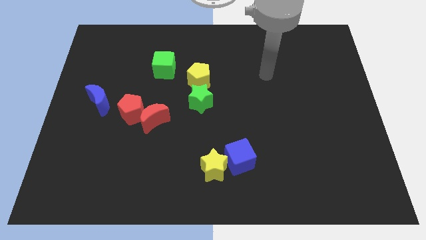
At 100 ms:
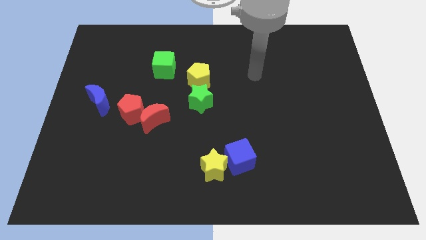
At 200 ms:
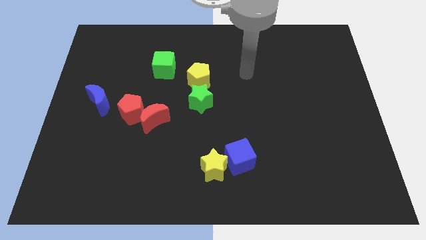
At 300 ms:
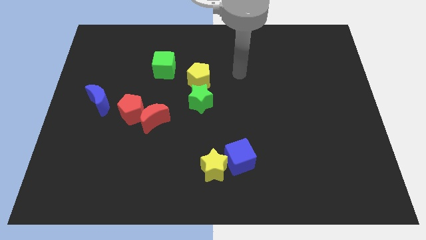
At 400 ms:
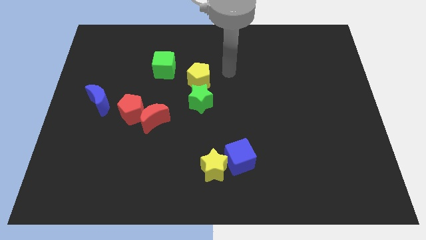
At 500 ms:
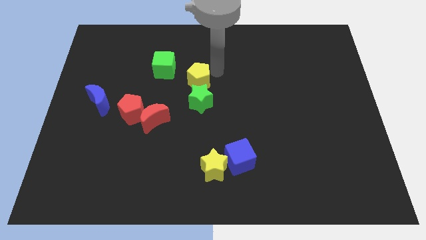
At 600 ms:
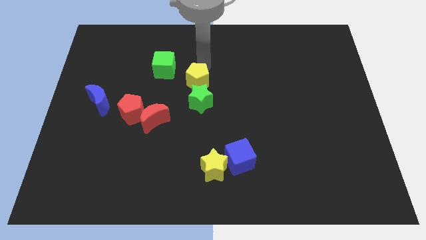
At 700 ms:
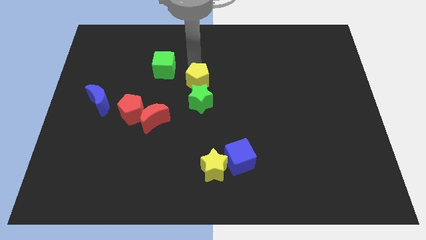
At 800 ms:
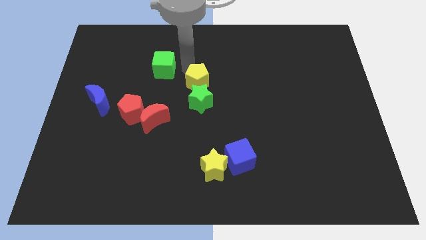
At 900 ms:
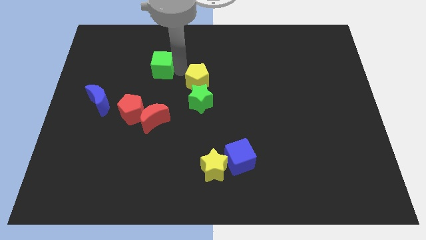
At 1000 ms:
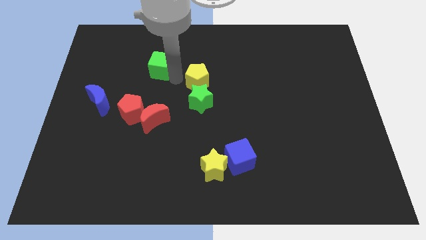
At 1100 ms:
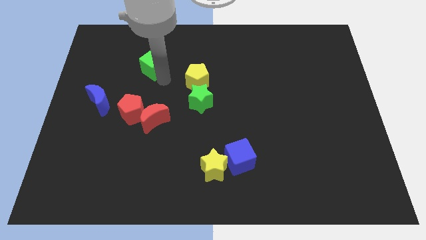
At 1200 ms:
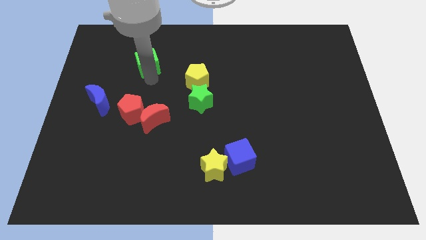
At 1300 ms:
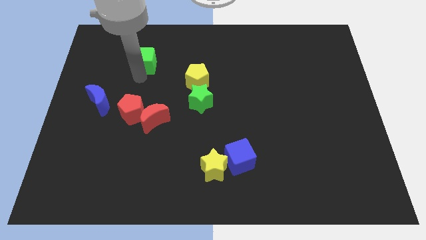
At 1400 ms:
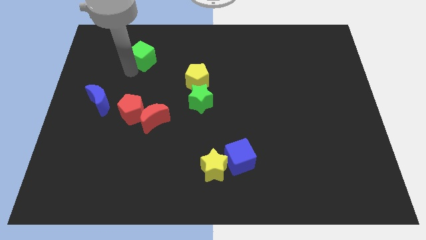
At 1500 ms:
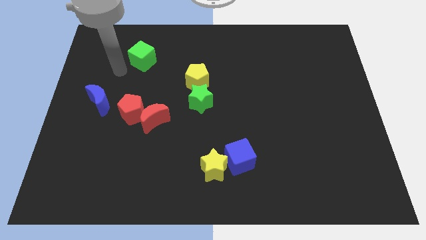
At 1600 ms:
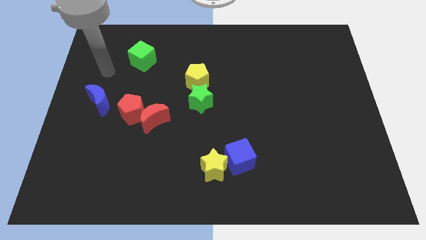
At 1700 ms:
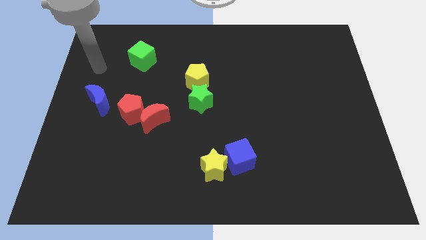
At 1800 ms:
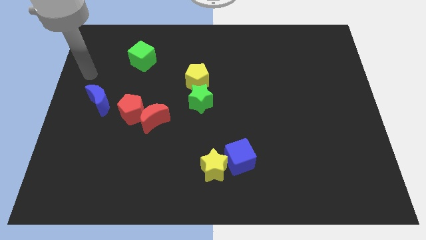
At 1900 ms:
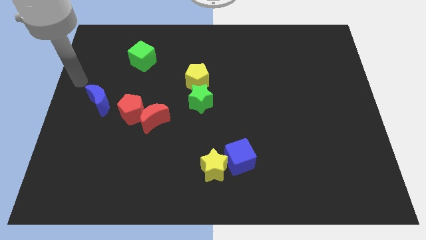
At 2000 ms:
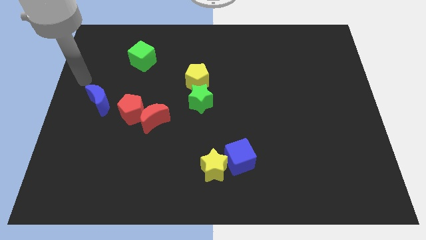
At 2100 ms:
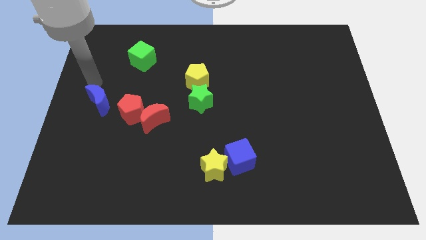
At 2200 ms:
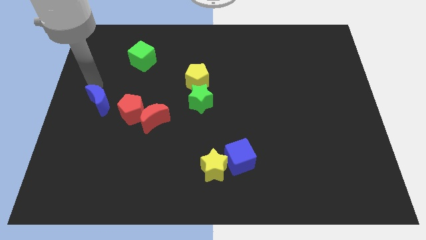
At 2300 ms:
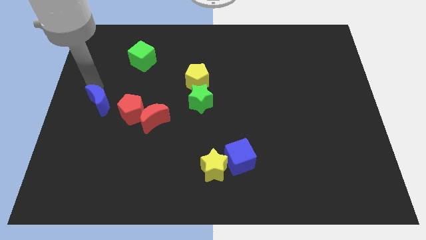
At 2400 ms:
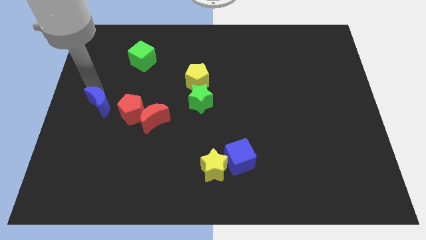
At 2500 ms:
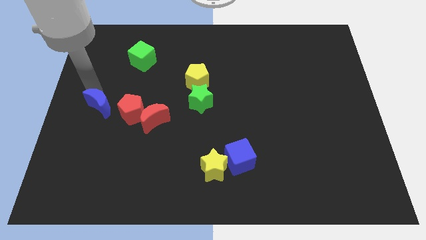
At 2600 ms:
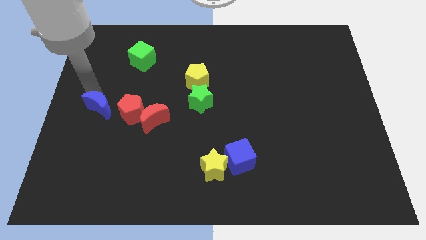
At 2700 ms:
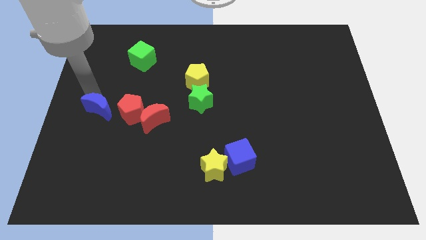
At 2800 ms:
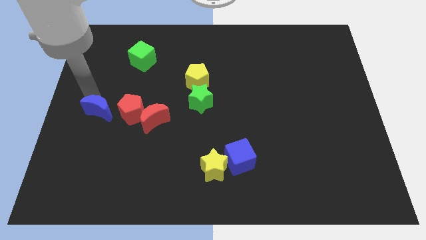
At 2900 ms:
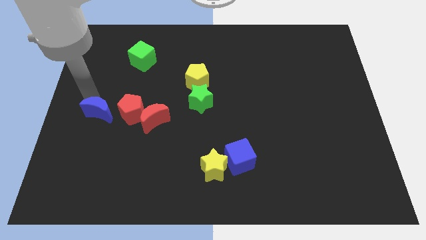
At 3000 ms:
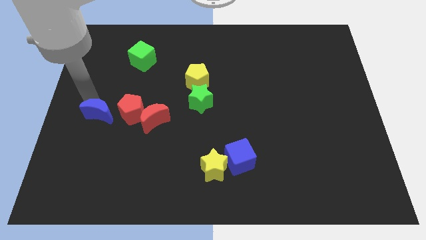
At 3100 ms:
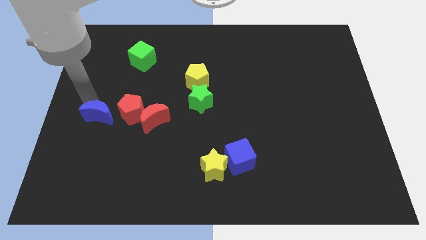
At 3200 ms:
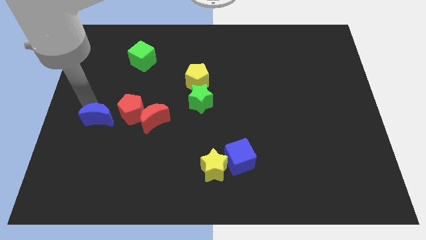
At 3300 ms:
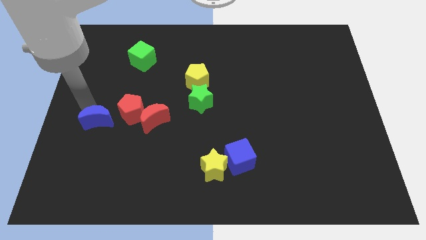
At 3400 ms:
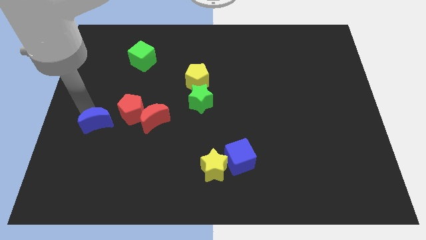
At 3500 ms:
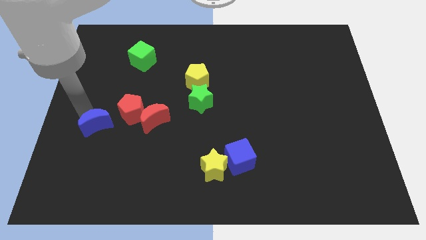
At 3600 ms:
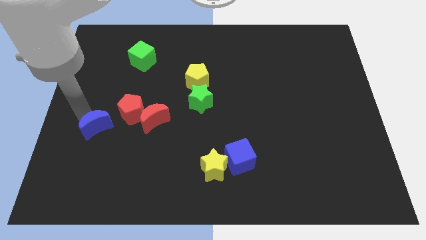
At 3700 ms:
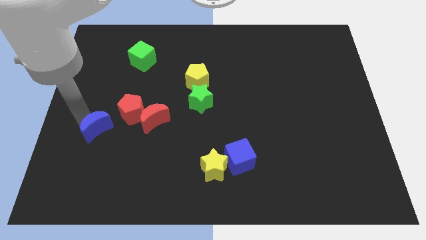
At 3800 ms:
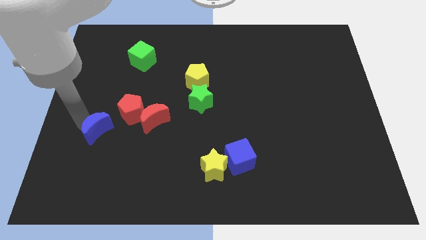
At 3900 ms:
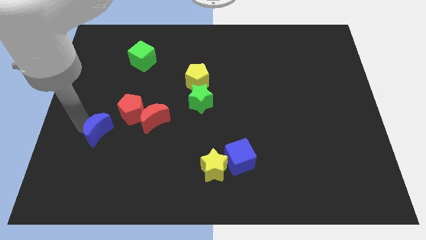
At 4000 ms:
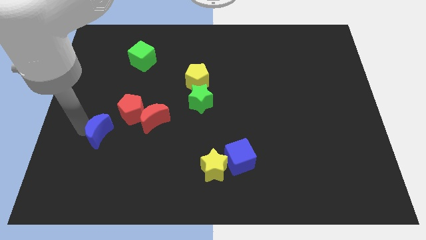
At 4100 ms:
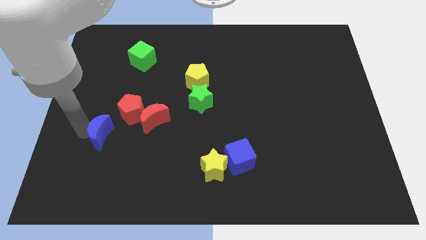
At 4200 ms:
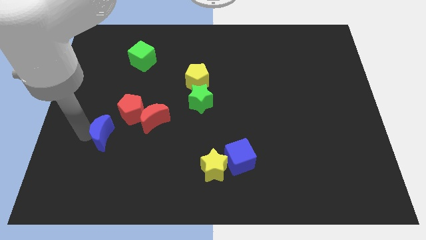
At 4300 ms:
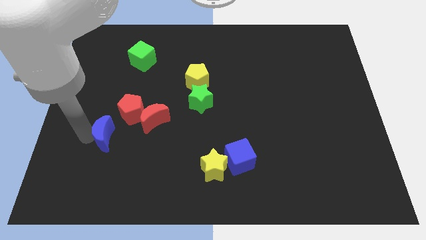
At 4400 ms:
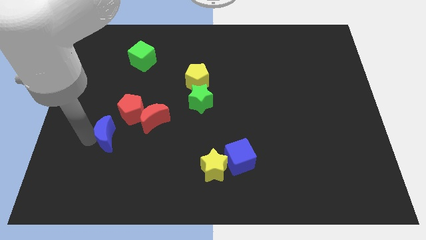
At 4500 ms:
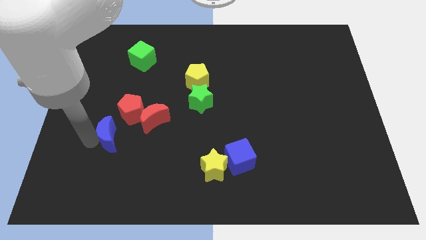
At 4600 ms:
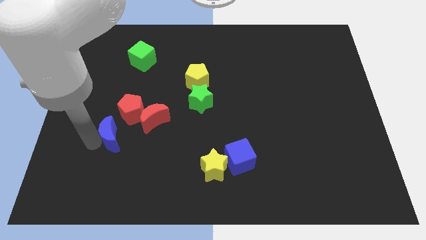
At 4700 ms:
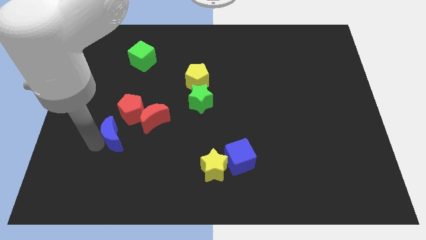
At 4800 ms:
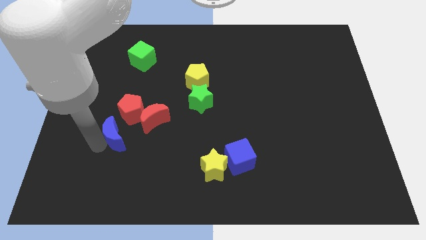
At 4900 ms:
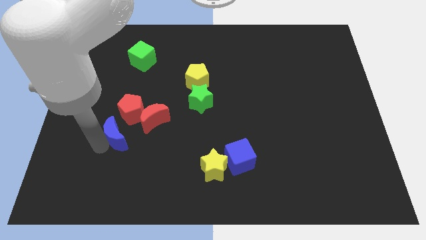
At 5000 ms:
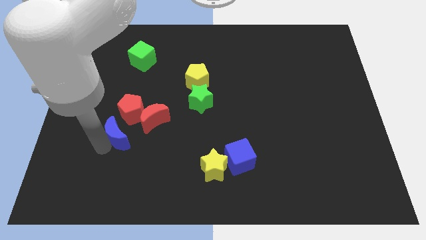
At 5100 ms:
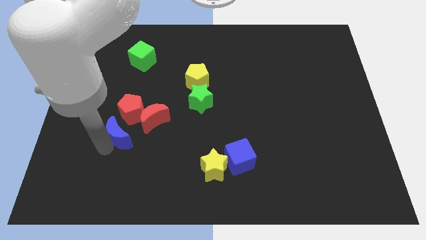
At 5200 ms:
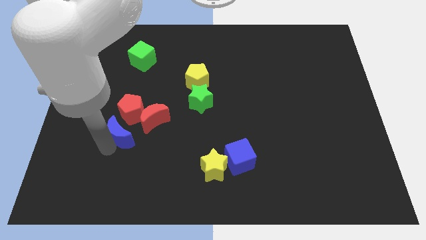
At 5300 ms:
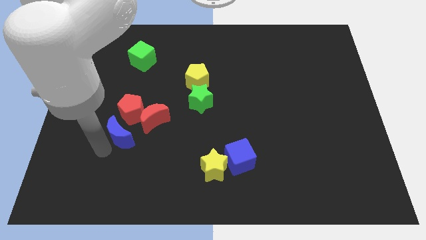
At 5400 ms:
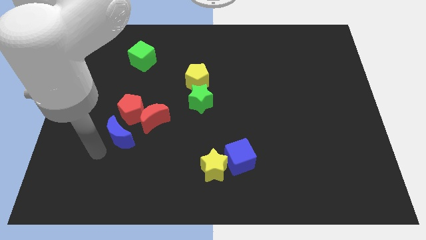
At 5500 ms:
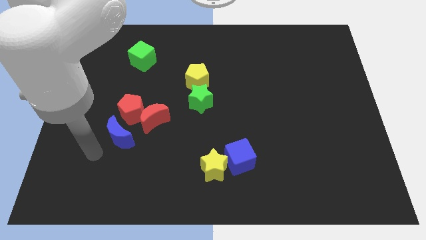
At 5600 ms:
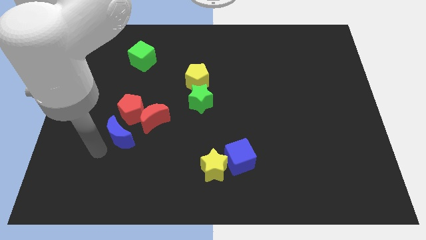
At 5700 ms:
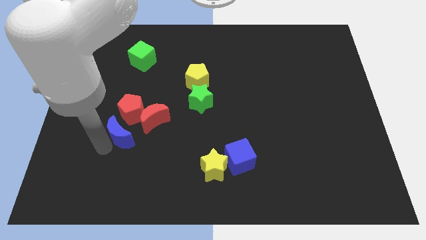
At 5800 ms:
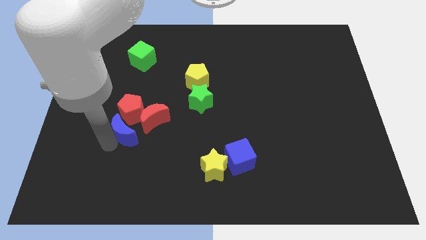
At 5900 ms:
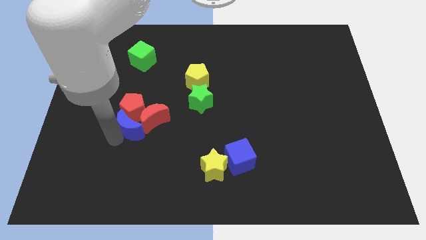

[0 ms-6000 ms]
push the blue moon to the bottom right of the red pentagon

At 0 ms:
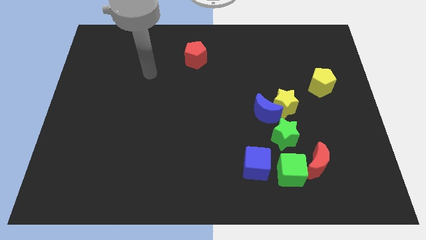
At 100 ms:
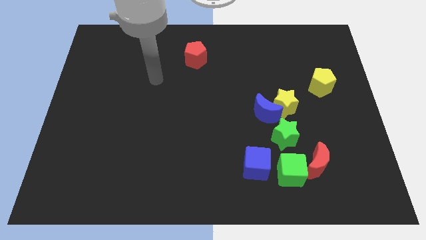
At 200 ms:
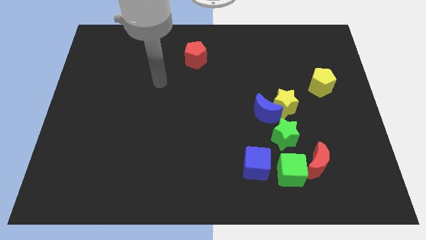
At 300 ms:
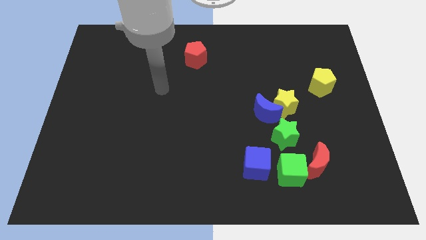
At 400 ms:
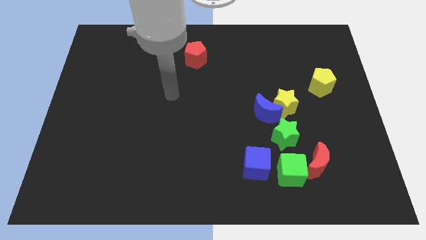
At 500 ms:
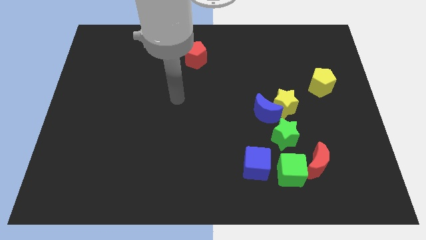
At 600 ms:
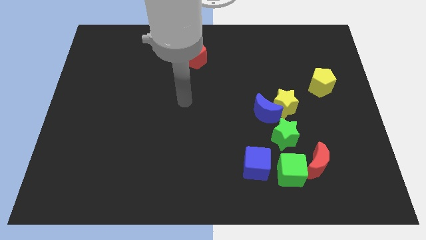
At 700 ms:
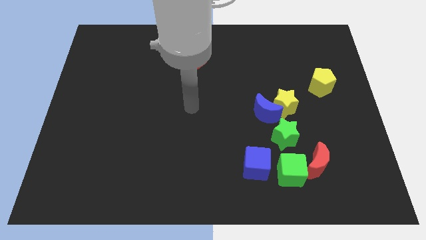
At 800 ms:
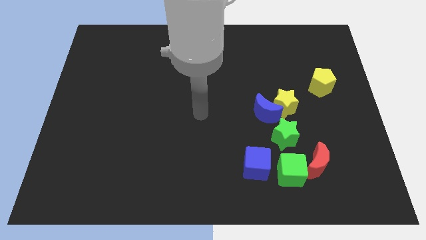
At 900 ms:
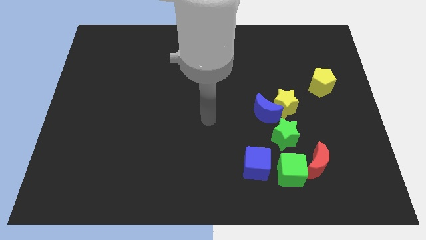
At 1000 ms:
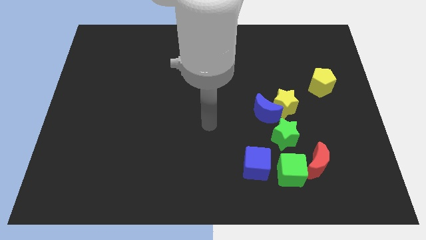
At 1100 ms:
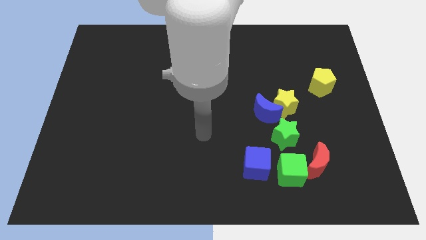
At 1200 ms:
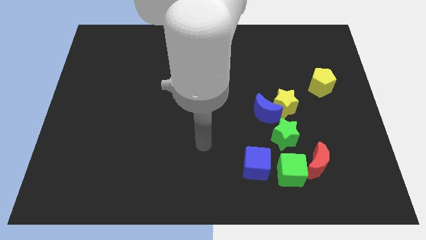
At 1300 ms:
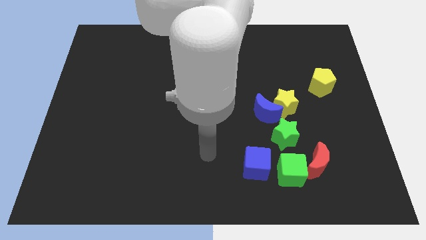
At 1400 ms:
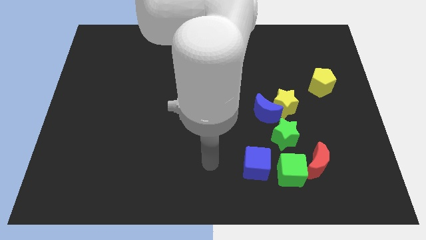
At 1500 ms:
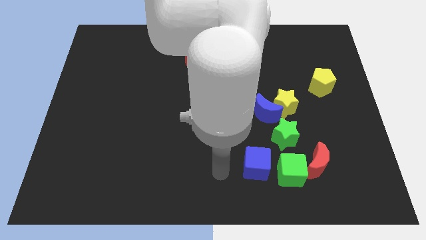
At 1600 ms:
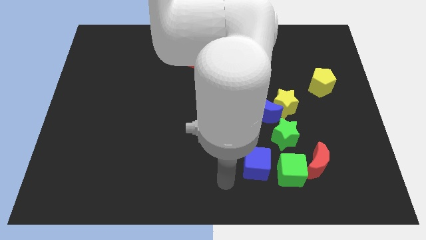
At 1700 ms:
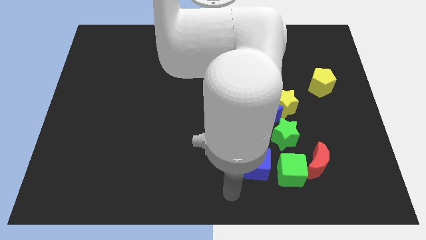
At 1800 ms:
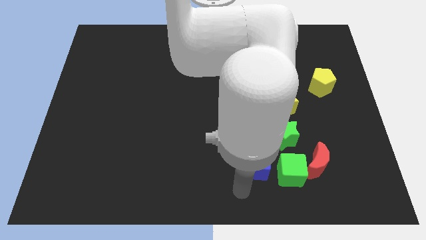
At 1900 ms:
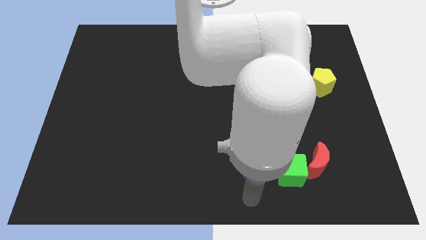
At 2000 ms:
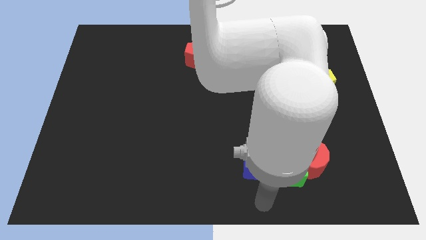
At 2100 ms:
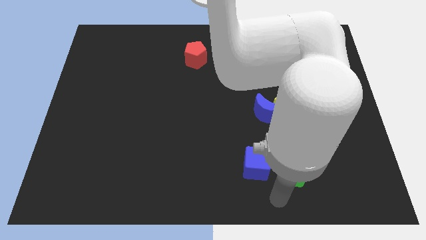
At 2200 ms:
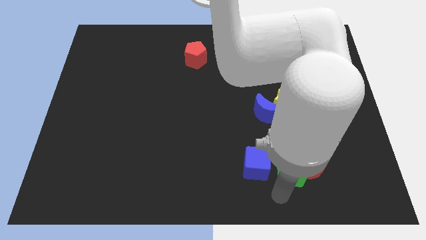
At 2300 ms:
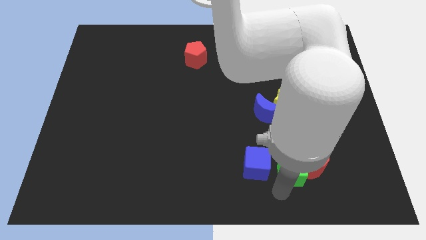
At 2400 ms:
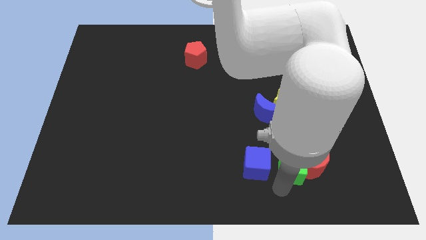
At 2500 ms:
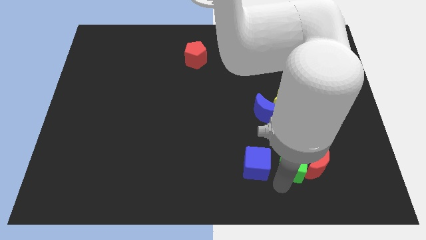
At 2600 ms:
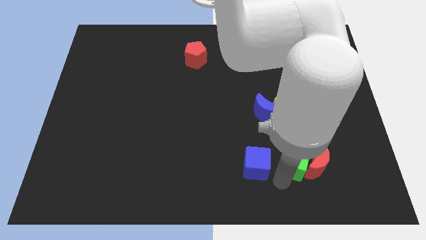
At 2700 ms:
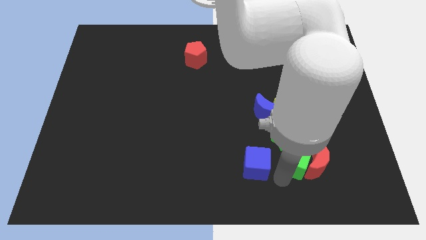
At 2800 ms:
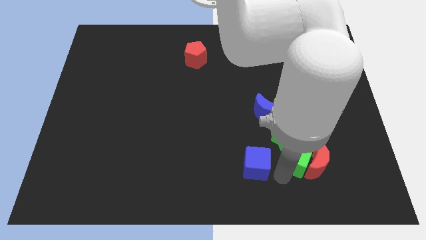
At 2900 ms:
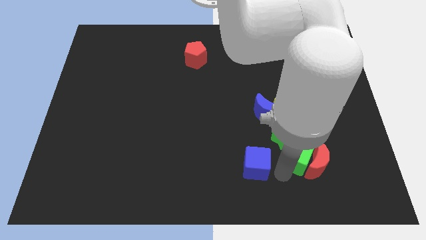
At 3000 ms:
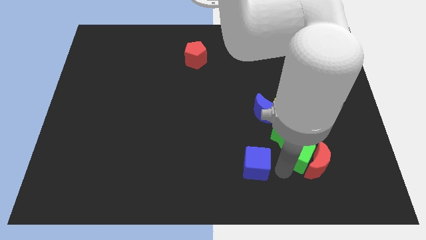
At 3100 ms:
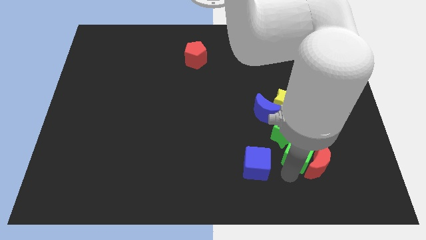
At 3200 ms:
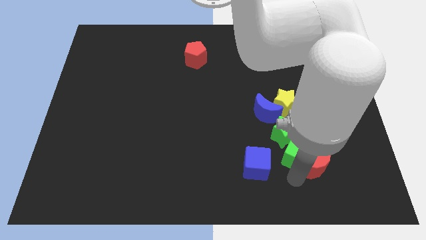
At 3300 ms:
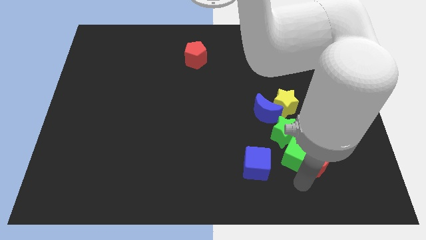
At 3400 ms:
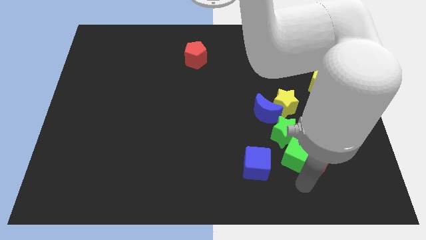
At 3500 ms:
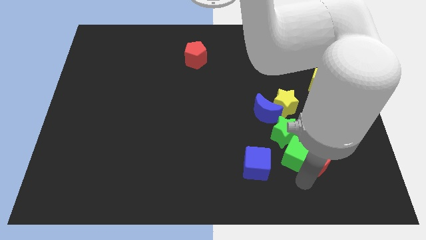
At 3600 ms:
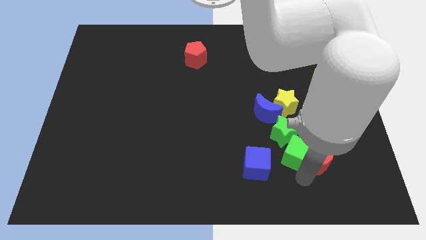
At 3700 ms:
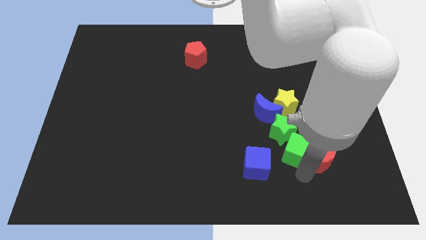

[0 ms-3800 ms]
slide the green cube diagonally down and to the right of the blue moon
